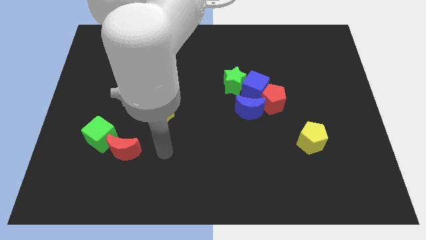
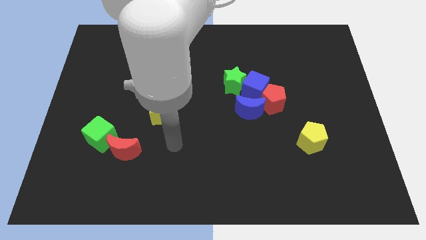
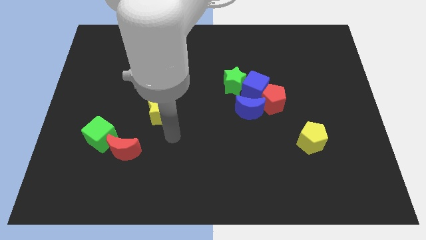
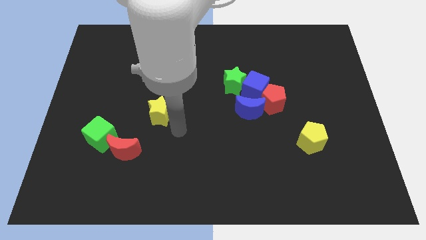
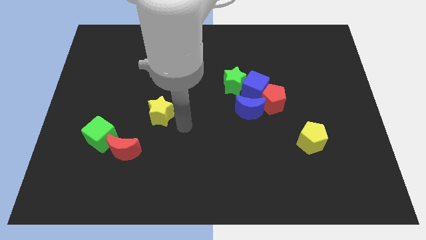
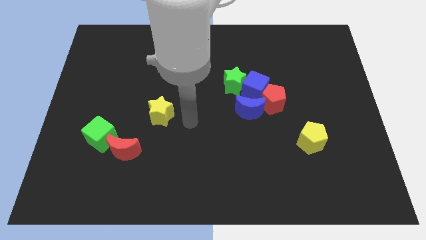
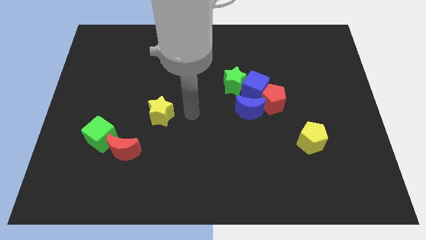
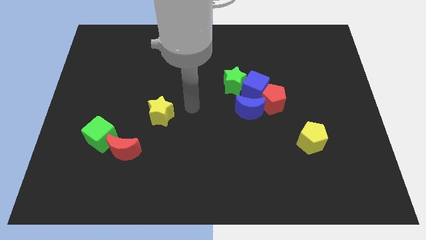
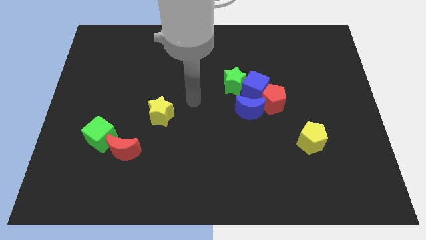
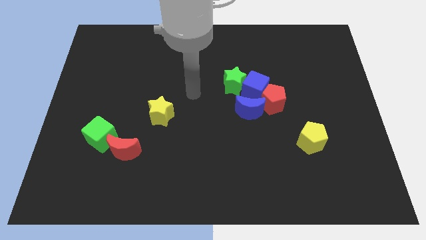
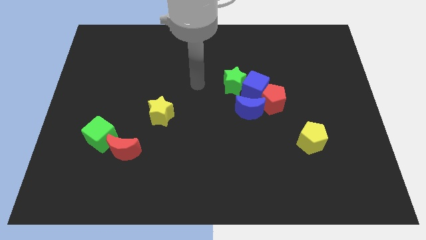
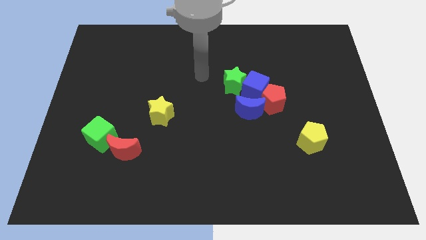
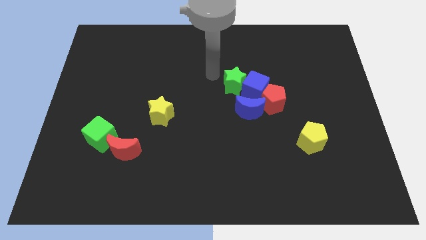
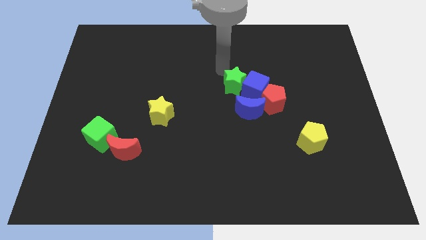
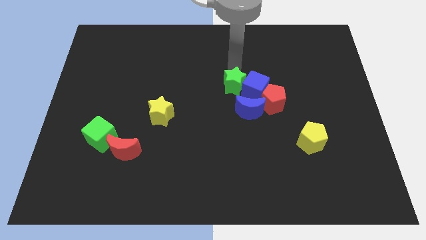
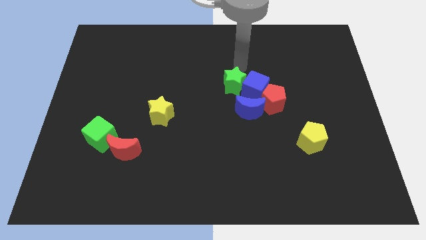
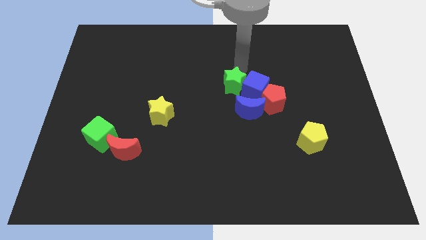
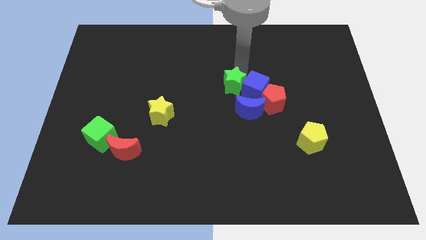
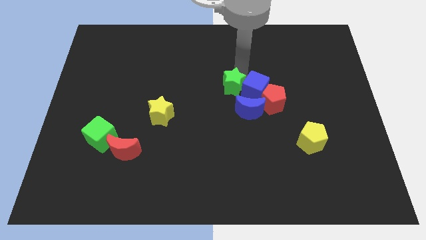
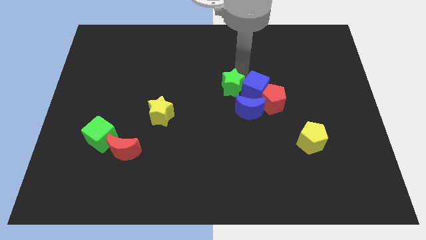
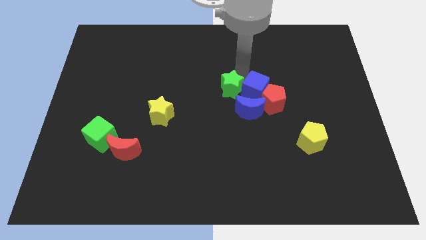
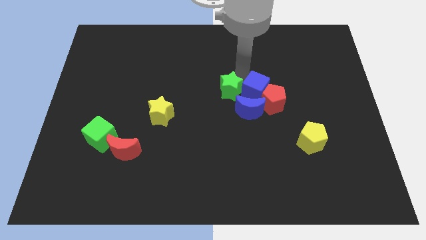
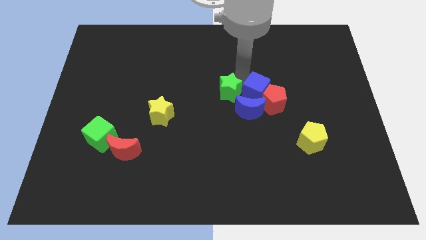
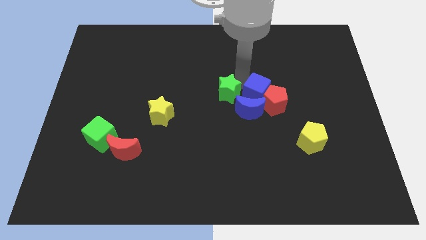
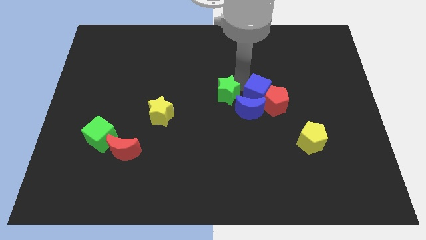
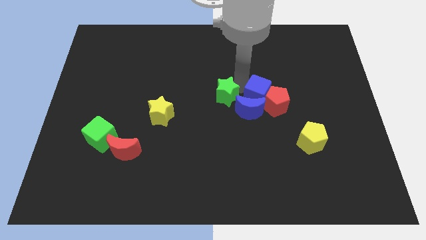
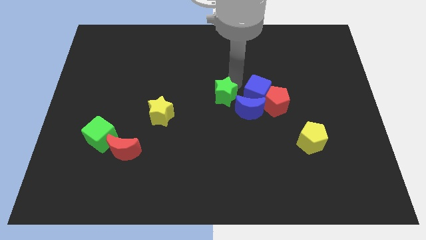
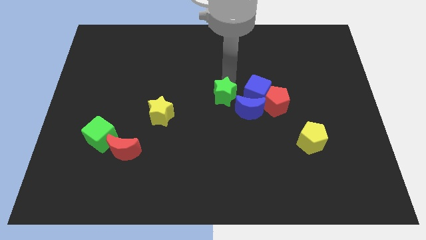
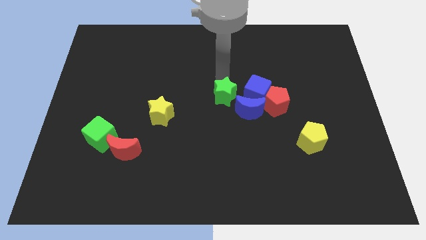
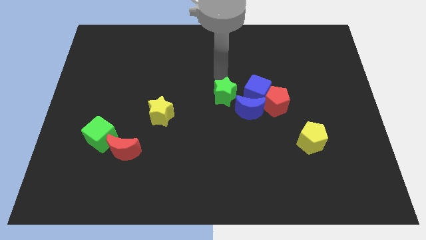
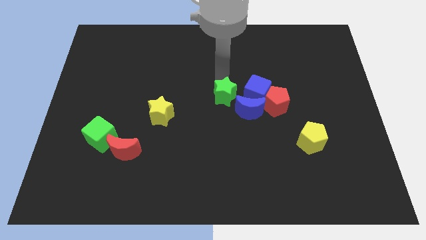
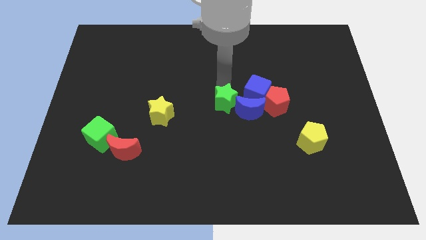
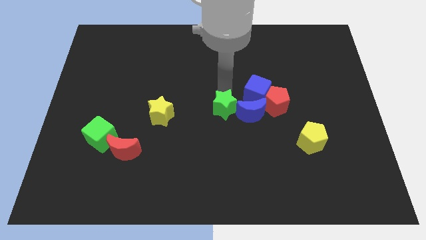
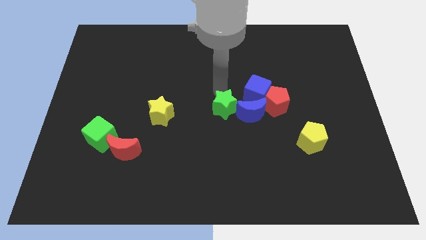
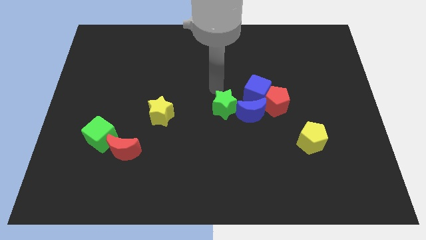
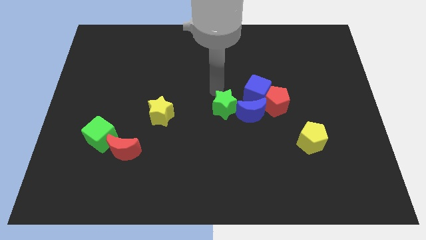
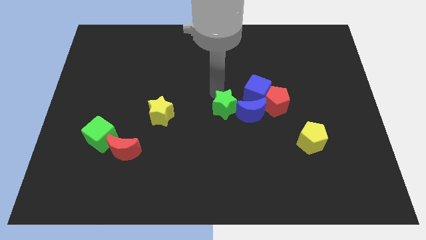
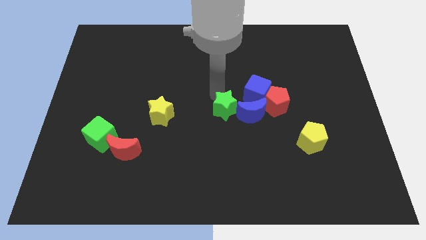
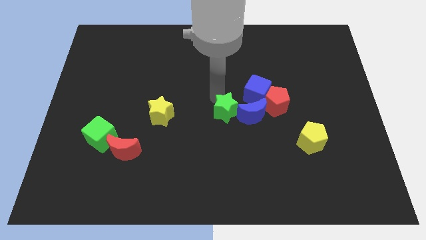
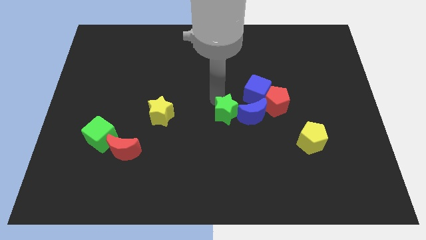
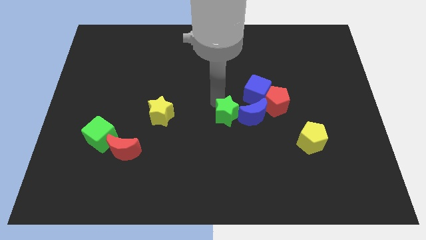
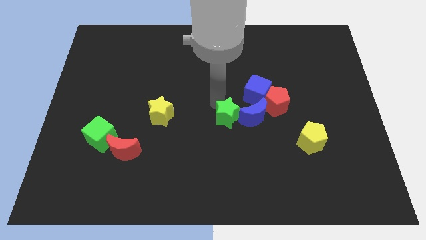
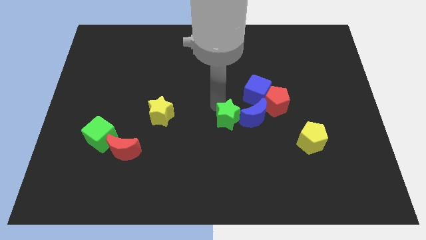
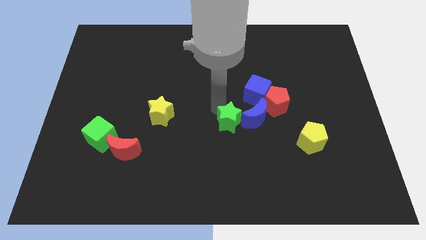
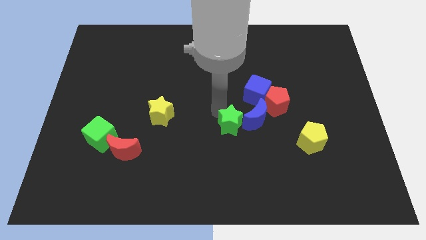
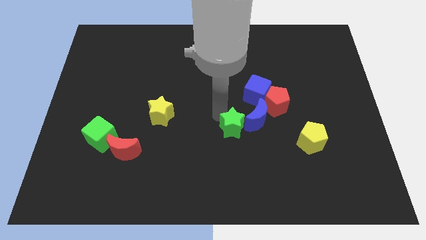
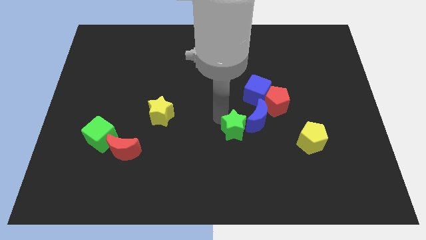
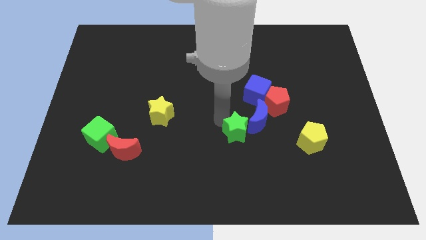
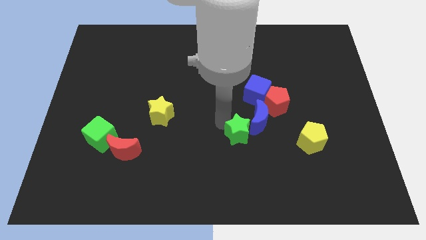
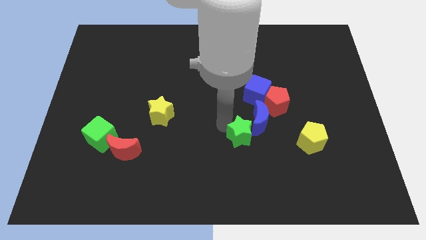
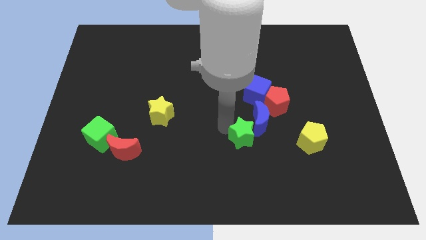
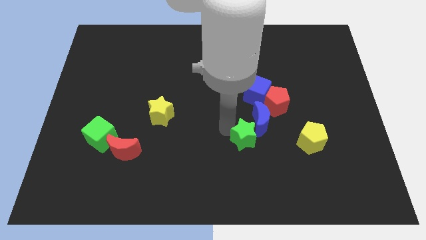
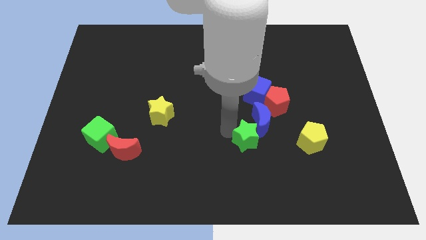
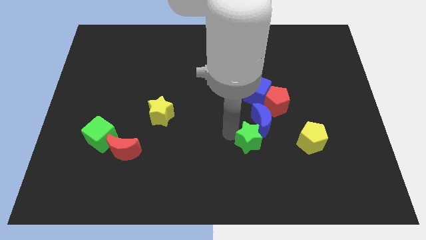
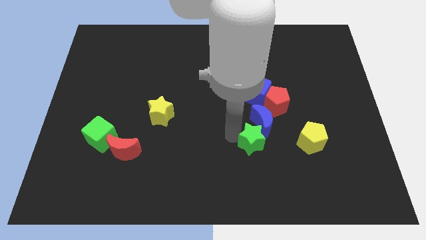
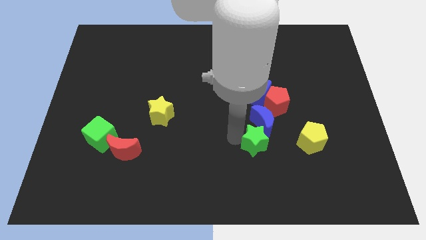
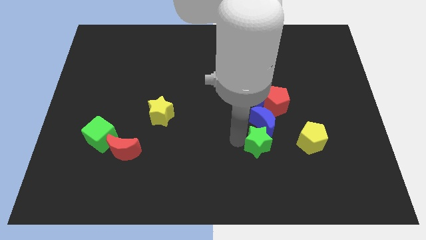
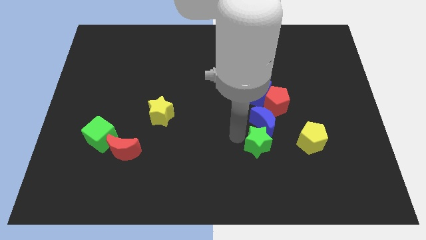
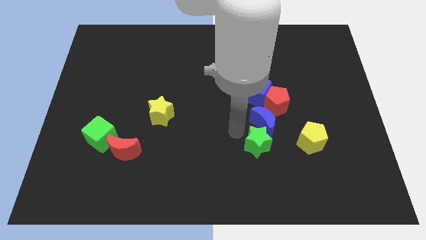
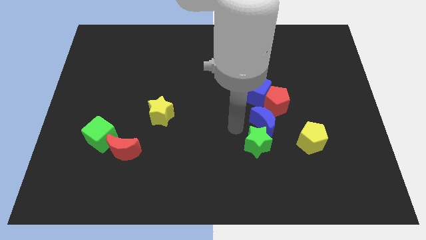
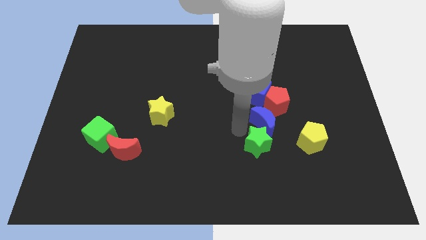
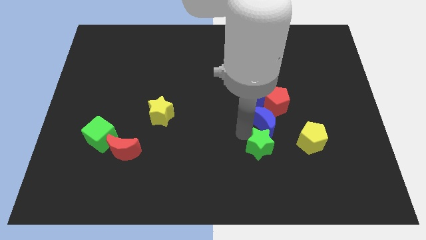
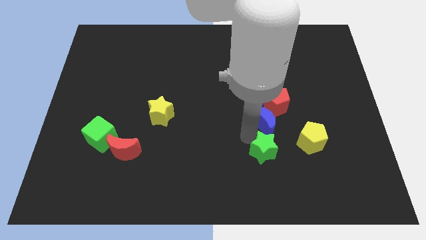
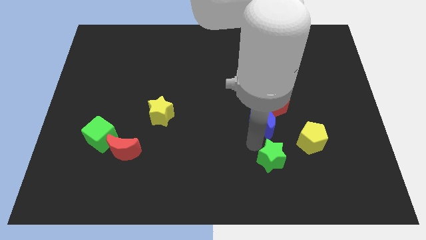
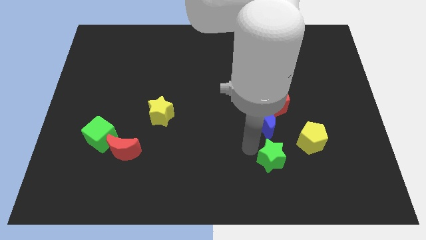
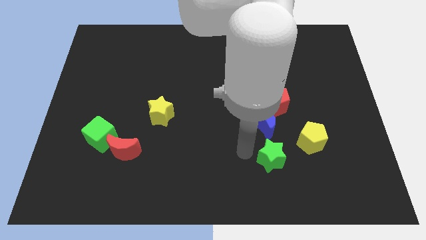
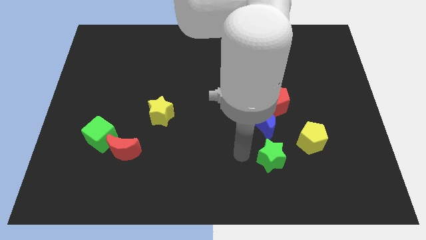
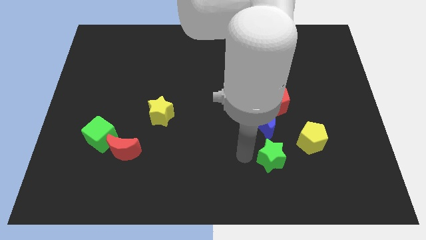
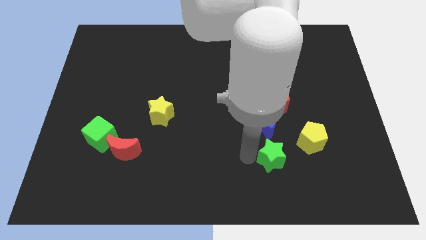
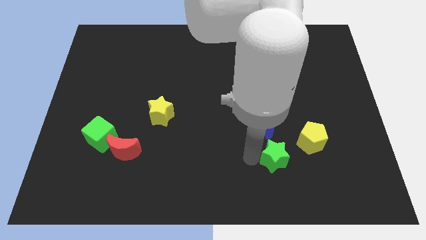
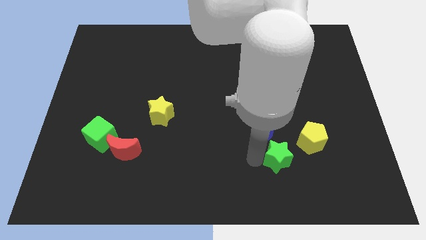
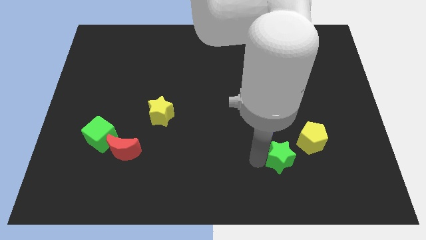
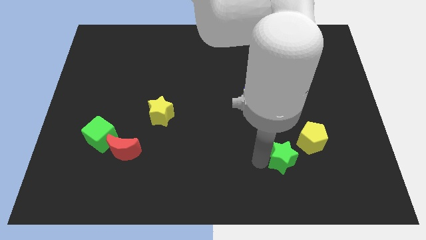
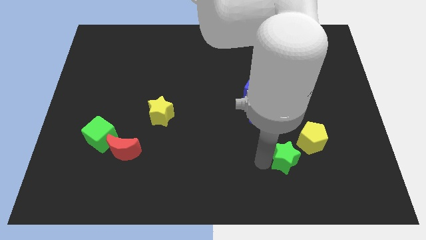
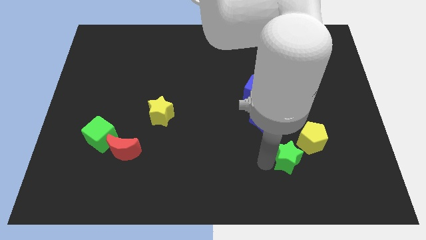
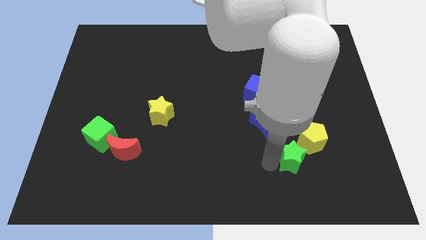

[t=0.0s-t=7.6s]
move the green star diagonally downwards and right

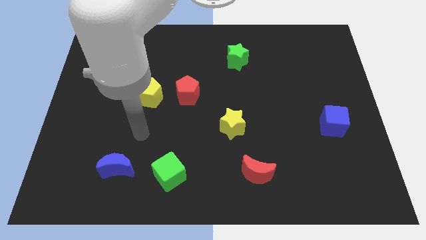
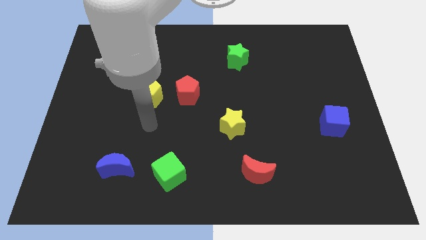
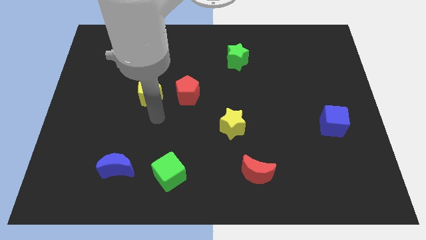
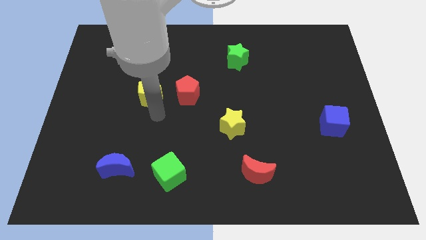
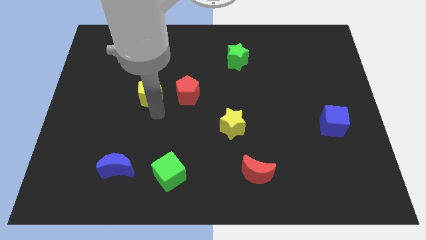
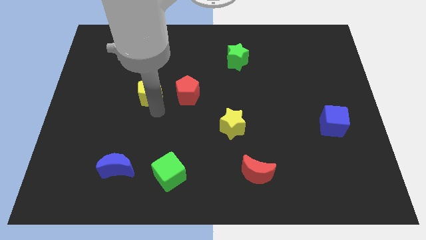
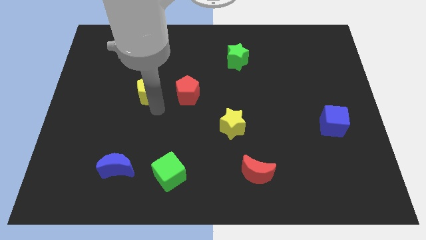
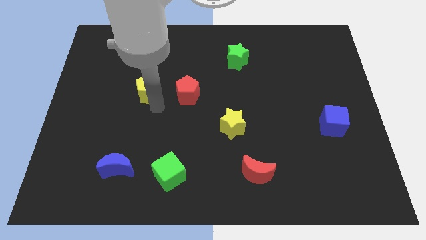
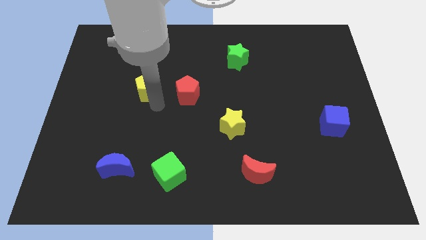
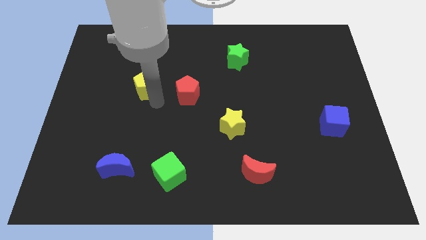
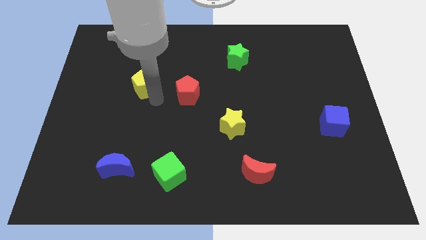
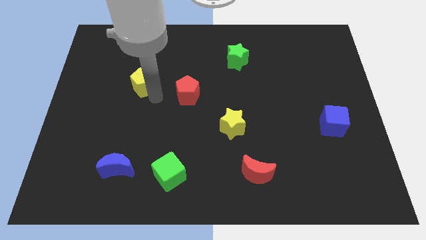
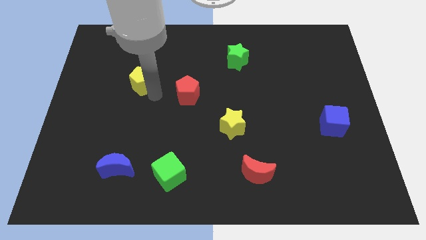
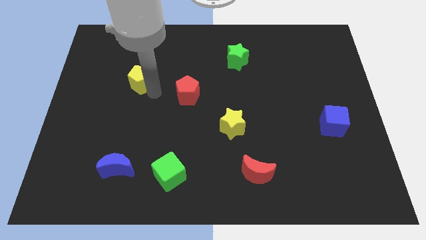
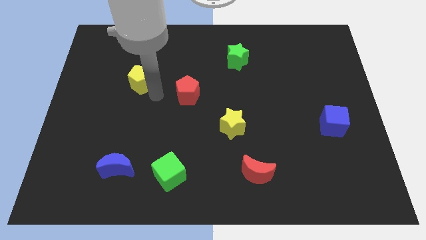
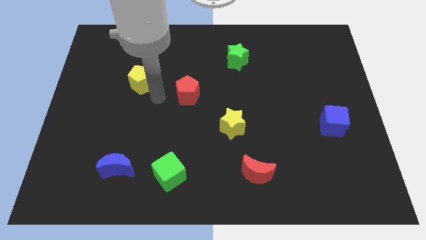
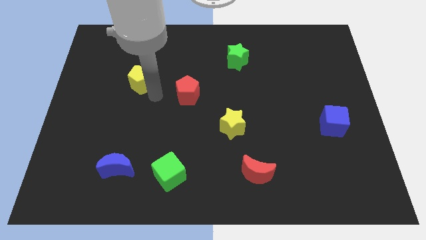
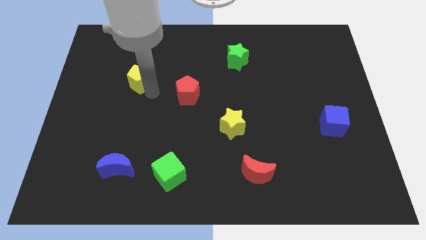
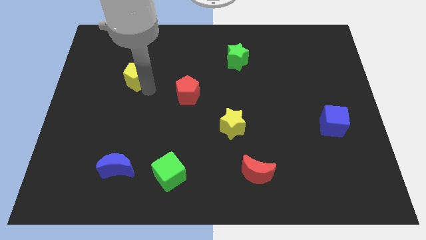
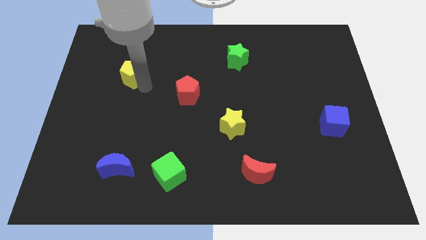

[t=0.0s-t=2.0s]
slightly slide the yellow pentagon upwards and then to the left
